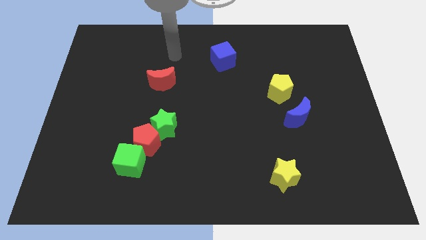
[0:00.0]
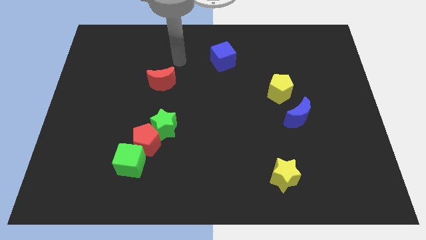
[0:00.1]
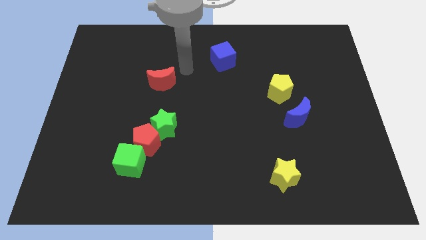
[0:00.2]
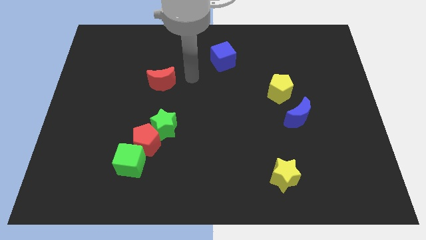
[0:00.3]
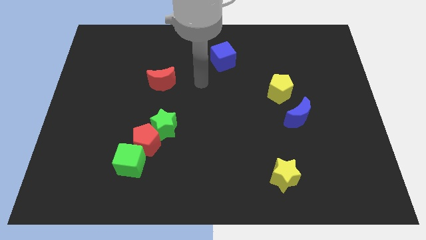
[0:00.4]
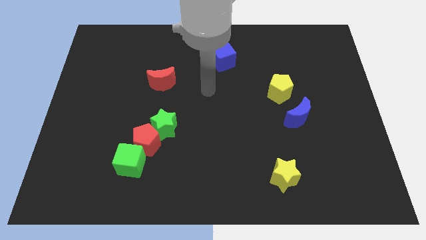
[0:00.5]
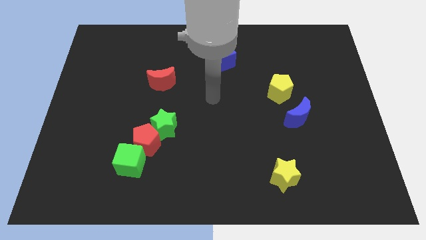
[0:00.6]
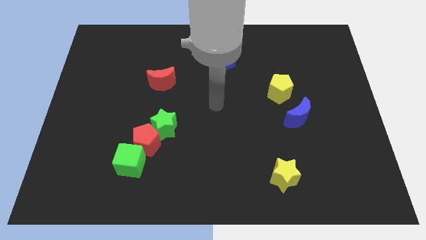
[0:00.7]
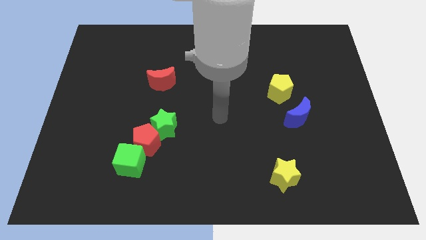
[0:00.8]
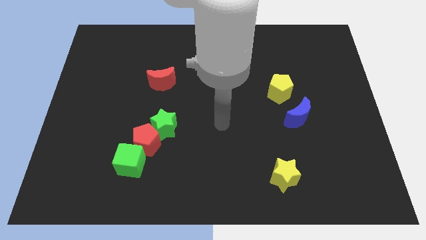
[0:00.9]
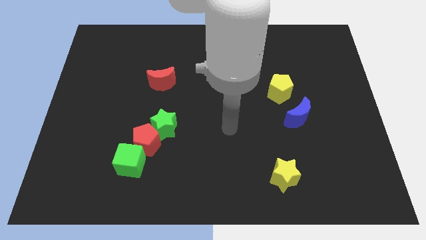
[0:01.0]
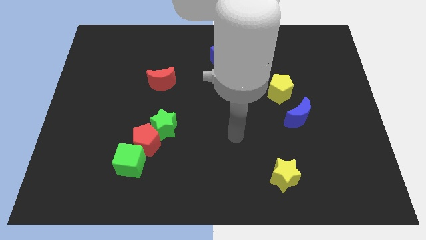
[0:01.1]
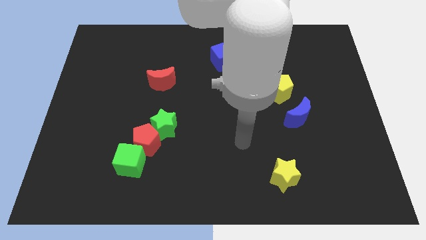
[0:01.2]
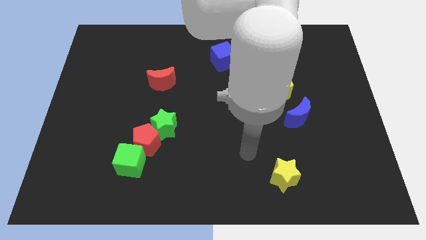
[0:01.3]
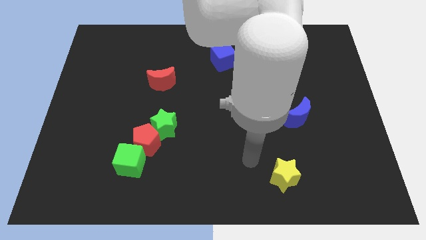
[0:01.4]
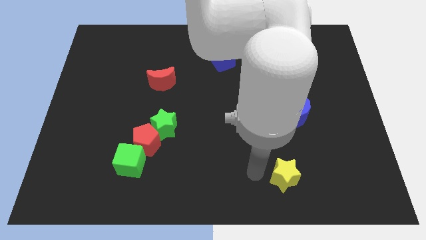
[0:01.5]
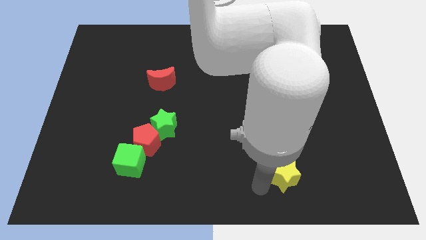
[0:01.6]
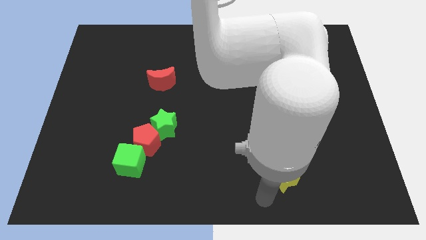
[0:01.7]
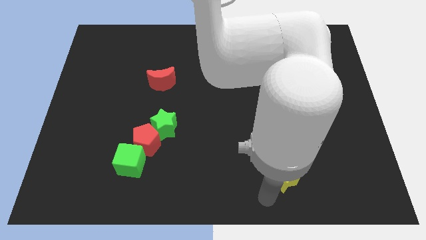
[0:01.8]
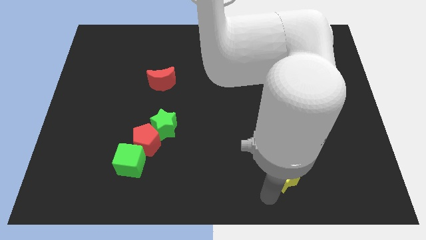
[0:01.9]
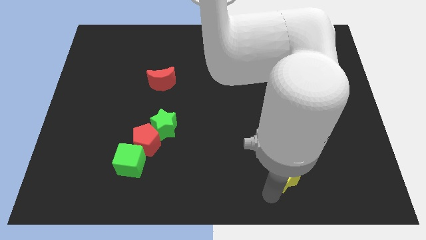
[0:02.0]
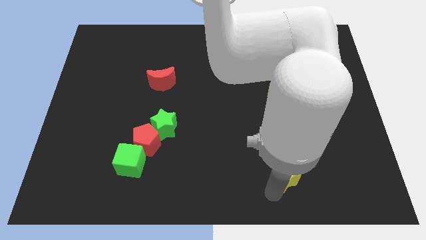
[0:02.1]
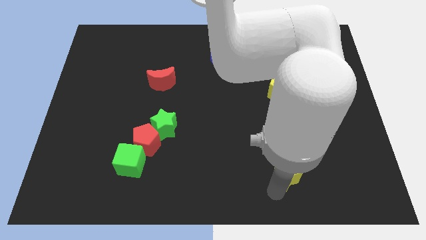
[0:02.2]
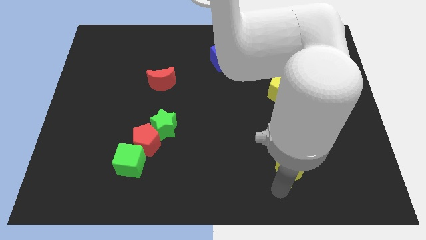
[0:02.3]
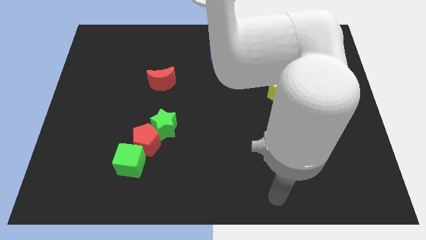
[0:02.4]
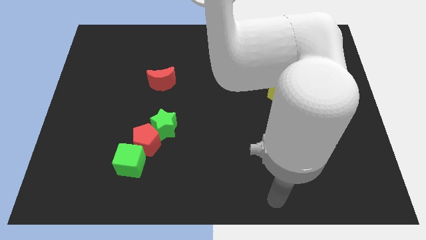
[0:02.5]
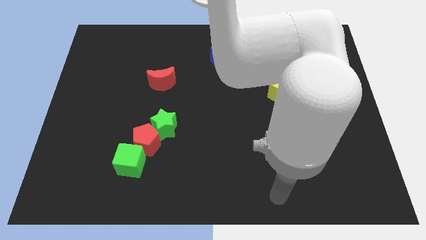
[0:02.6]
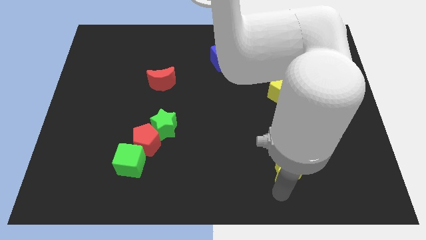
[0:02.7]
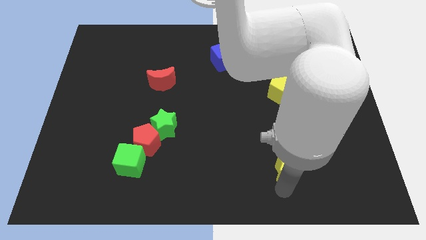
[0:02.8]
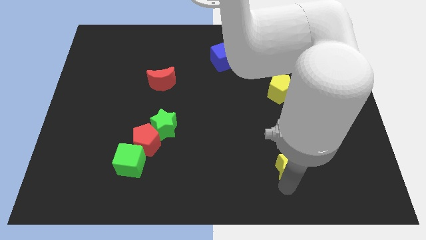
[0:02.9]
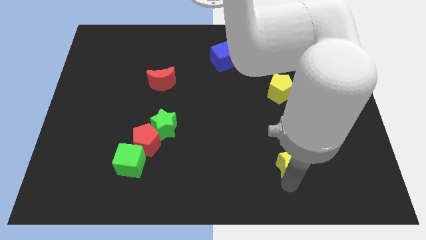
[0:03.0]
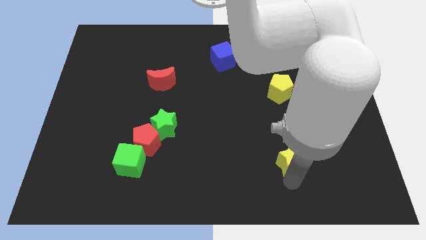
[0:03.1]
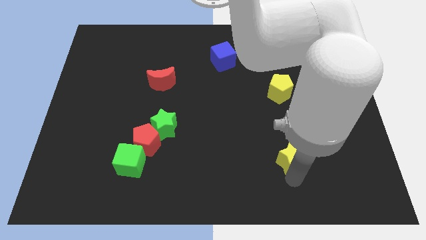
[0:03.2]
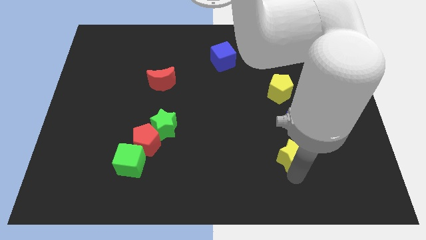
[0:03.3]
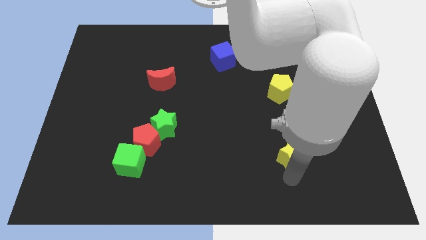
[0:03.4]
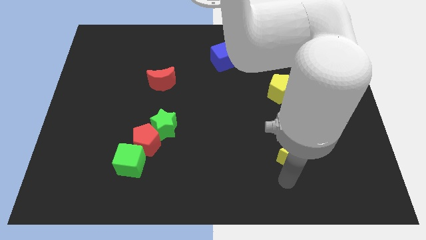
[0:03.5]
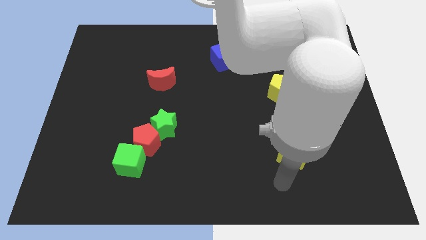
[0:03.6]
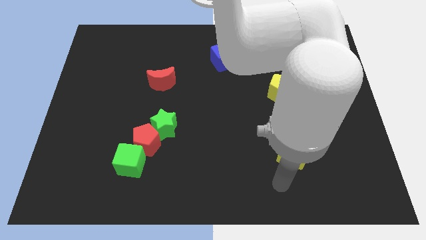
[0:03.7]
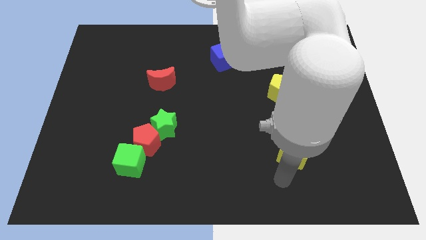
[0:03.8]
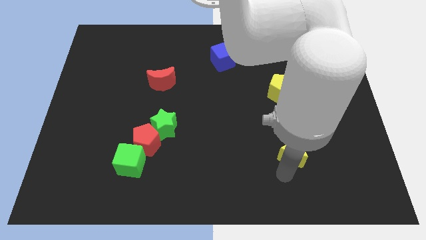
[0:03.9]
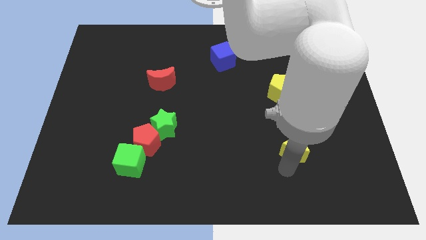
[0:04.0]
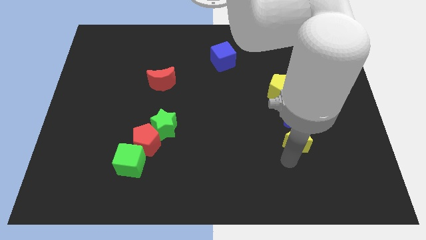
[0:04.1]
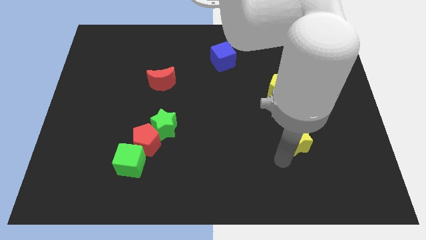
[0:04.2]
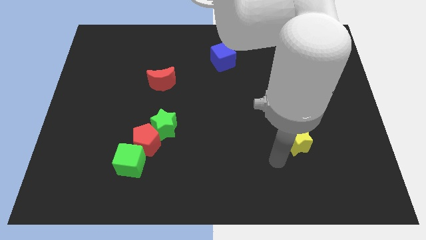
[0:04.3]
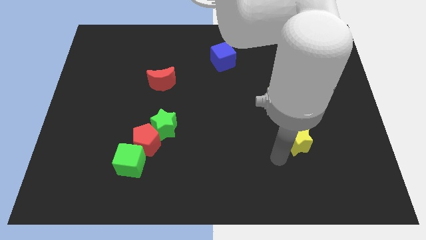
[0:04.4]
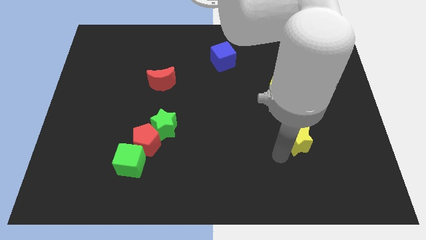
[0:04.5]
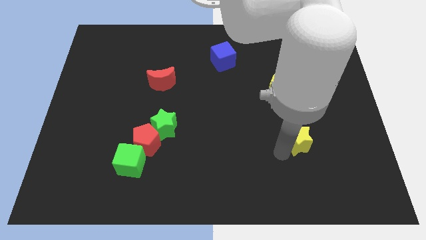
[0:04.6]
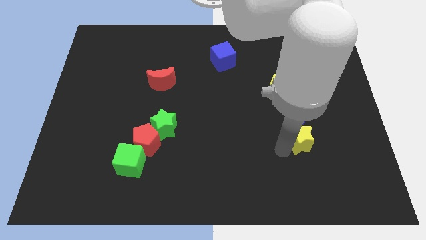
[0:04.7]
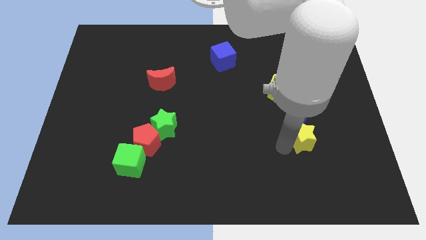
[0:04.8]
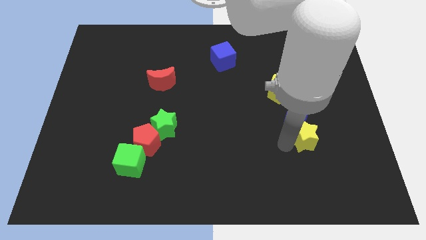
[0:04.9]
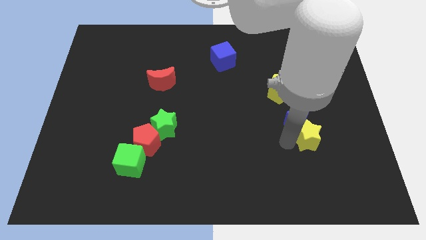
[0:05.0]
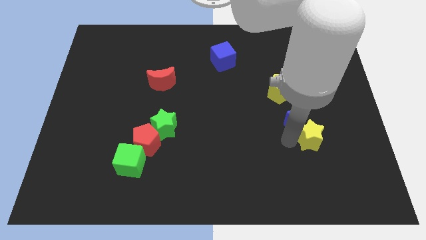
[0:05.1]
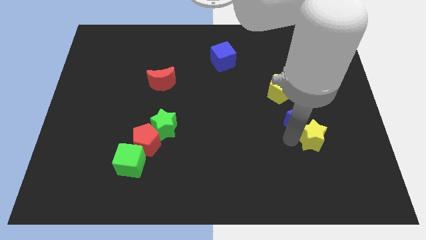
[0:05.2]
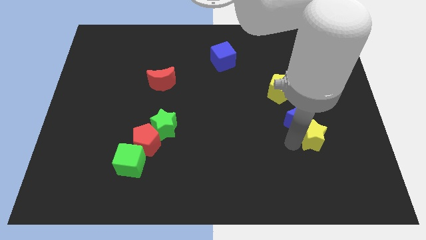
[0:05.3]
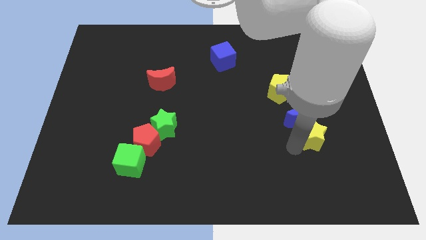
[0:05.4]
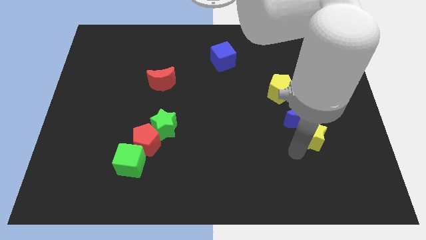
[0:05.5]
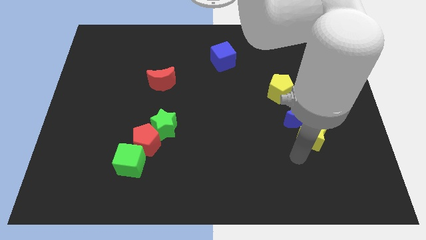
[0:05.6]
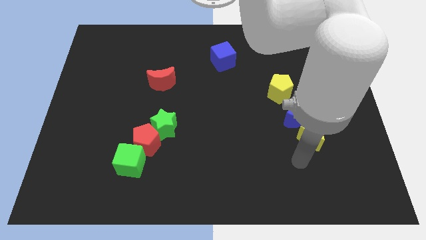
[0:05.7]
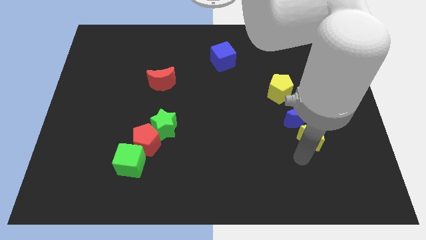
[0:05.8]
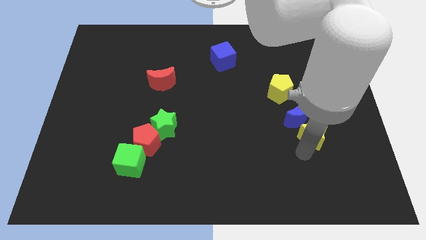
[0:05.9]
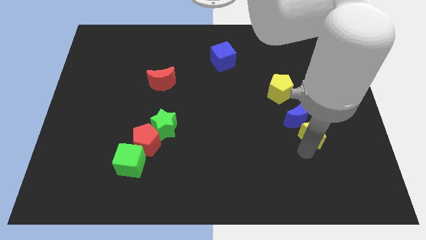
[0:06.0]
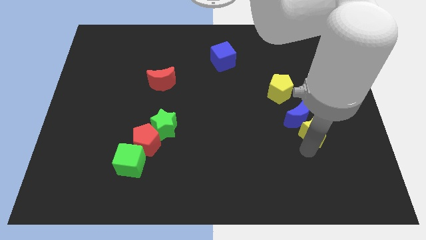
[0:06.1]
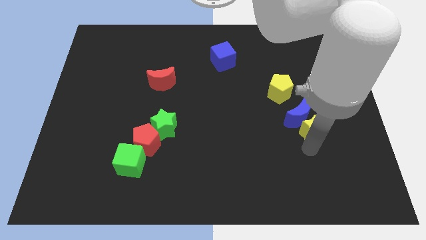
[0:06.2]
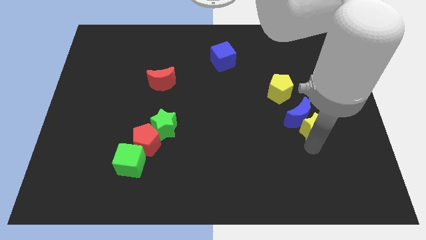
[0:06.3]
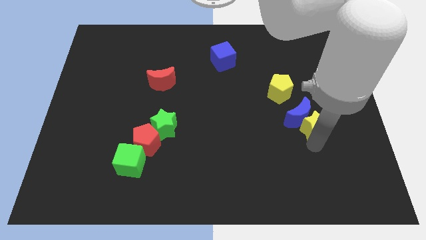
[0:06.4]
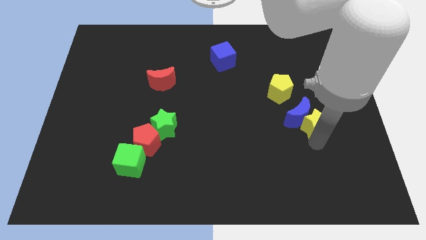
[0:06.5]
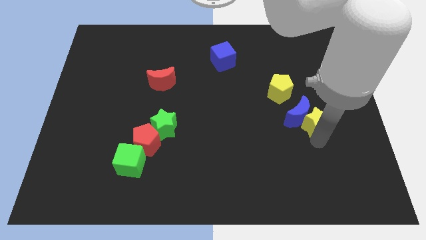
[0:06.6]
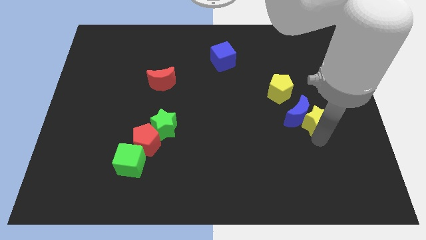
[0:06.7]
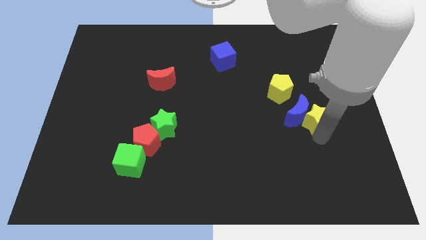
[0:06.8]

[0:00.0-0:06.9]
put the yellow star to the top right of the blue moon
